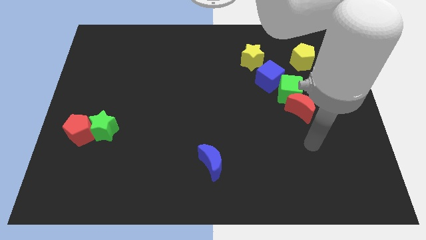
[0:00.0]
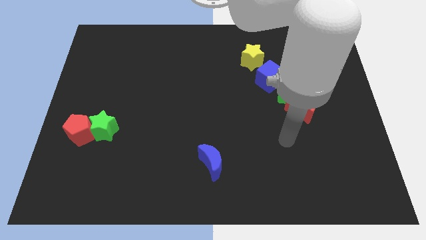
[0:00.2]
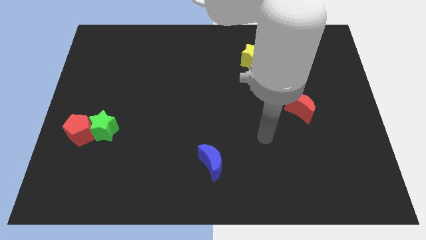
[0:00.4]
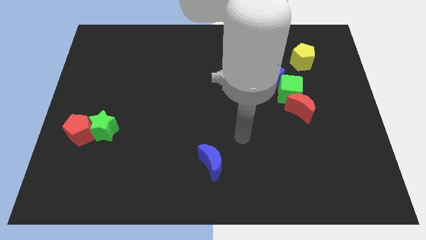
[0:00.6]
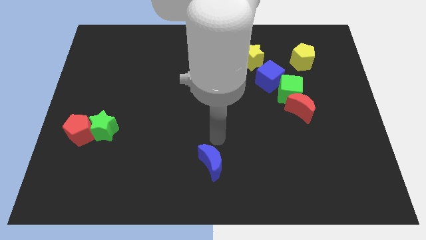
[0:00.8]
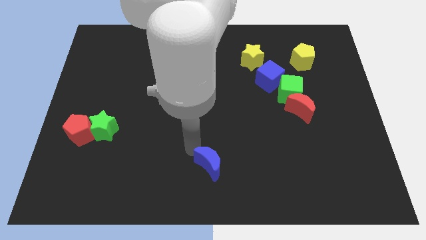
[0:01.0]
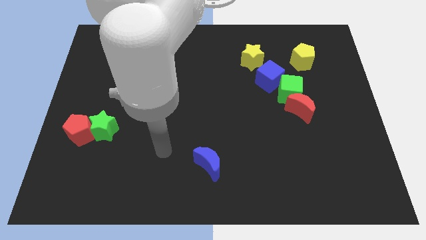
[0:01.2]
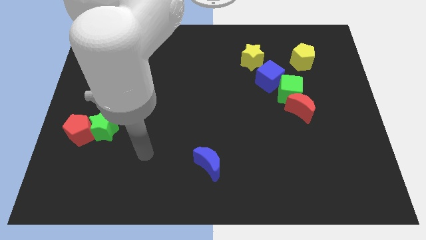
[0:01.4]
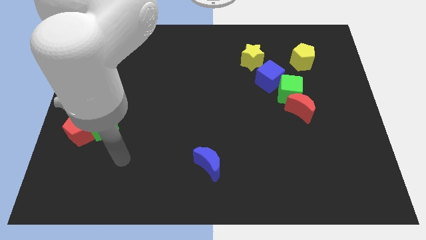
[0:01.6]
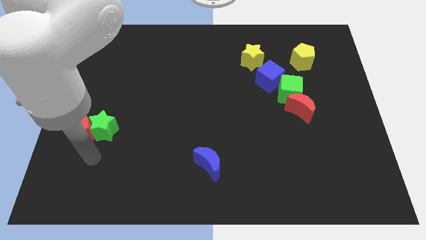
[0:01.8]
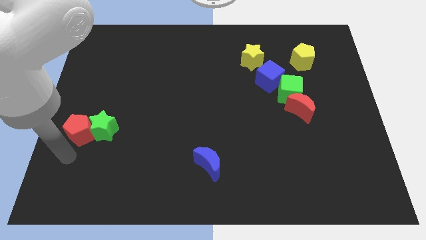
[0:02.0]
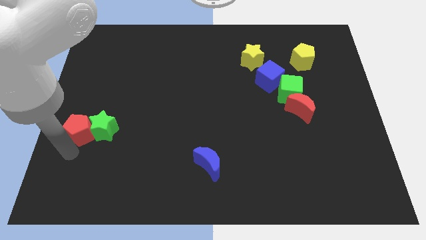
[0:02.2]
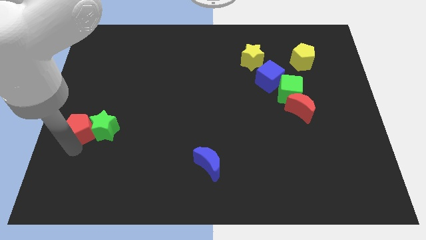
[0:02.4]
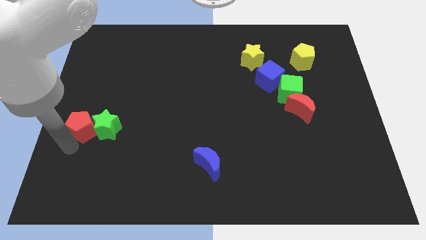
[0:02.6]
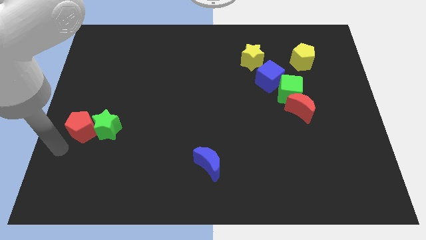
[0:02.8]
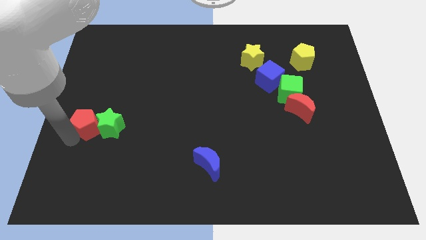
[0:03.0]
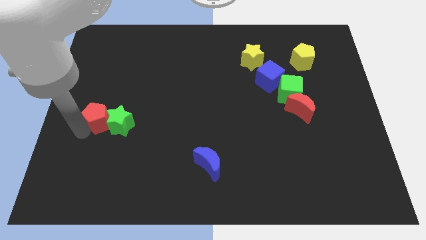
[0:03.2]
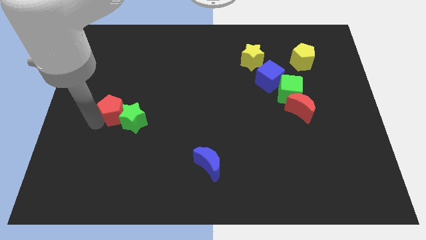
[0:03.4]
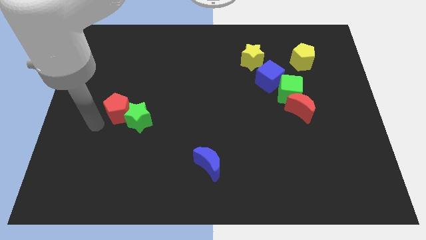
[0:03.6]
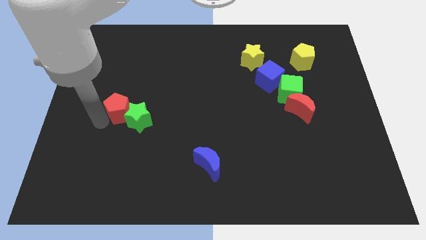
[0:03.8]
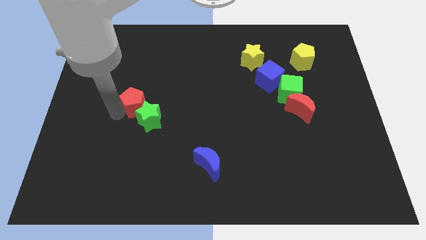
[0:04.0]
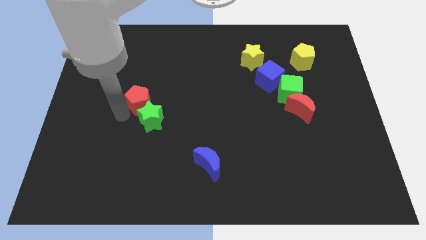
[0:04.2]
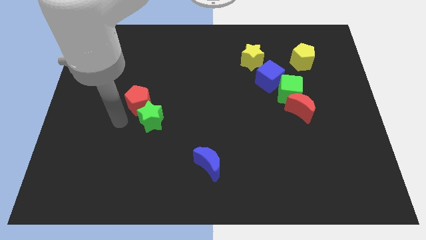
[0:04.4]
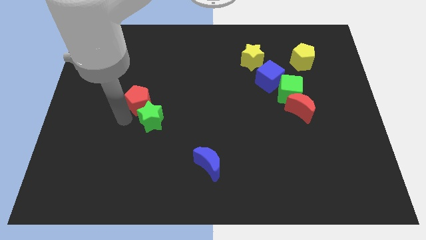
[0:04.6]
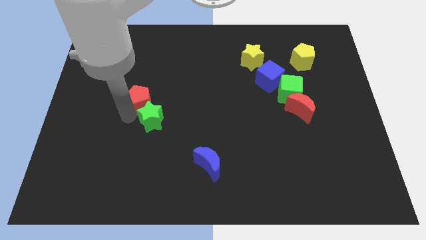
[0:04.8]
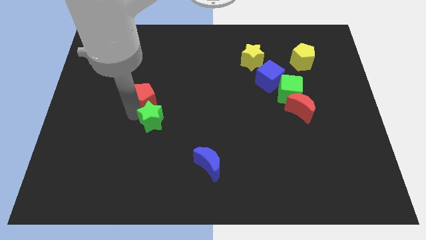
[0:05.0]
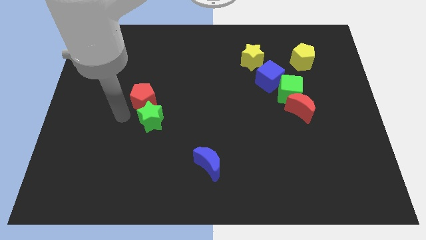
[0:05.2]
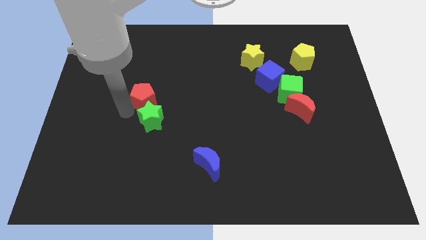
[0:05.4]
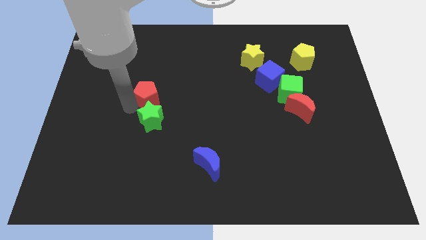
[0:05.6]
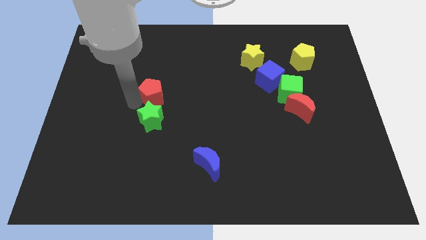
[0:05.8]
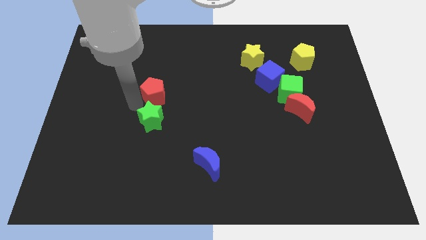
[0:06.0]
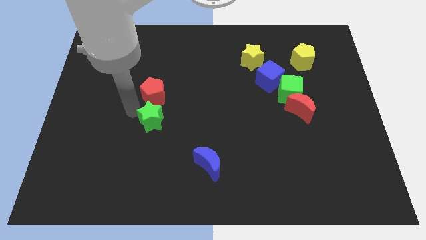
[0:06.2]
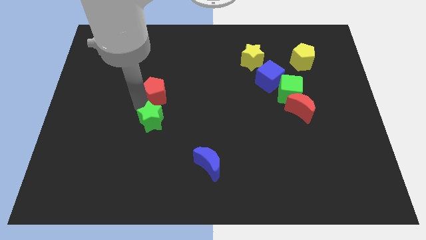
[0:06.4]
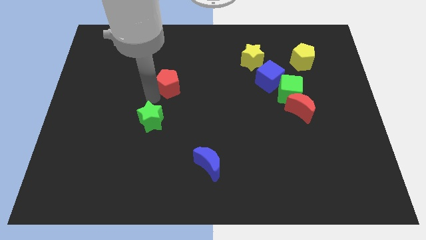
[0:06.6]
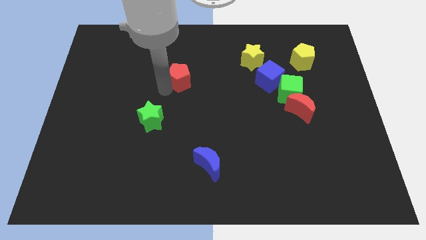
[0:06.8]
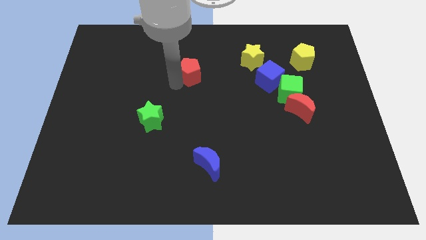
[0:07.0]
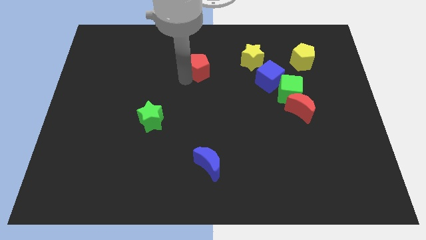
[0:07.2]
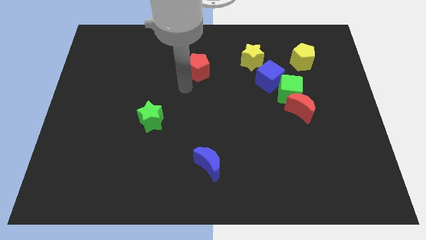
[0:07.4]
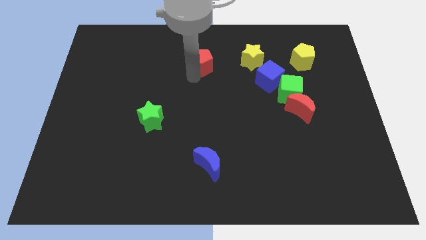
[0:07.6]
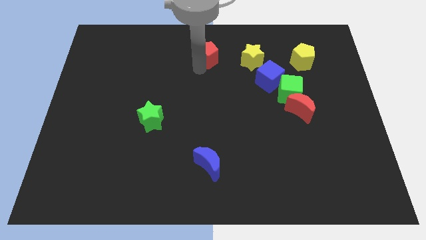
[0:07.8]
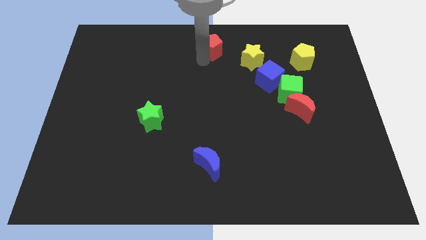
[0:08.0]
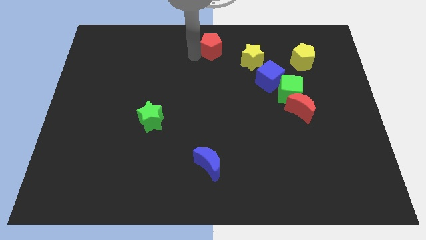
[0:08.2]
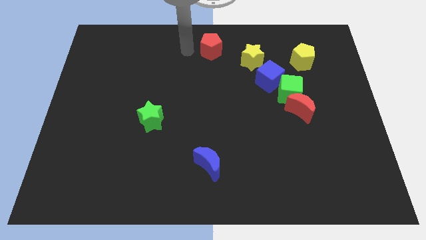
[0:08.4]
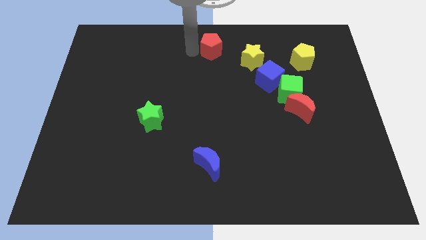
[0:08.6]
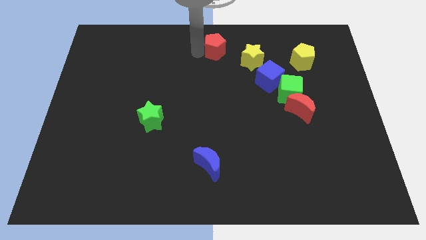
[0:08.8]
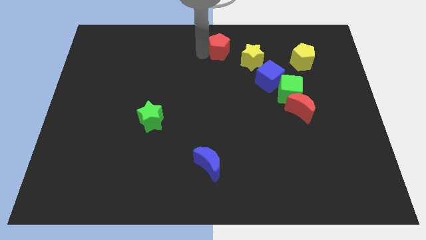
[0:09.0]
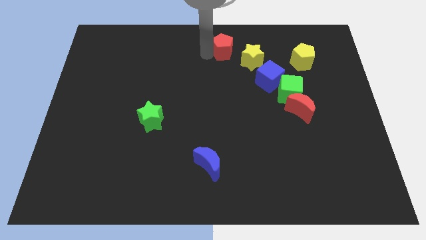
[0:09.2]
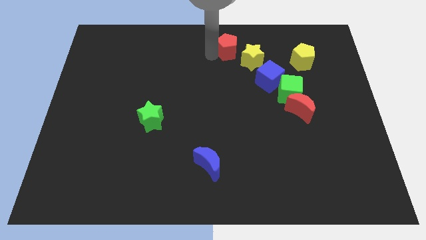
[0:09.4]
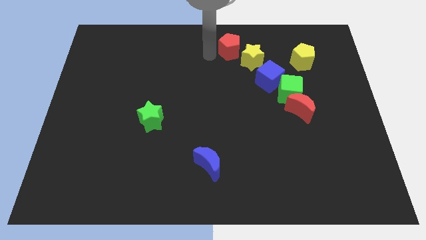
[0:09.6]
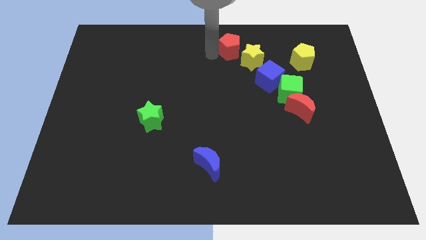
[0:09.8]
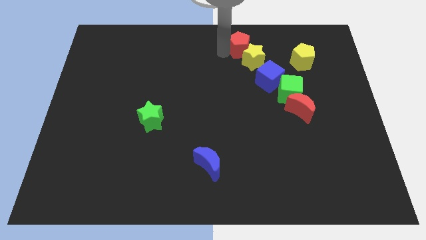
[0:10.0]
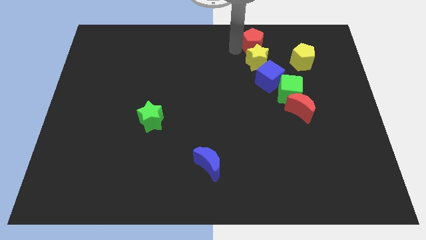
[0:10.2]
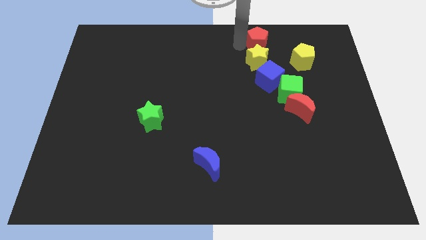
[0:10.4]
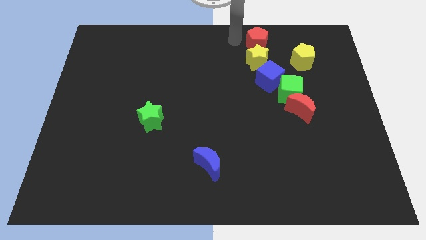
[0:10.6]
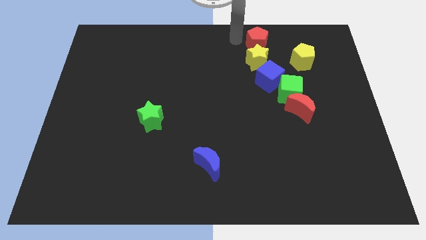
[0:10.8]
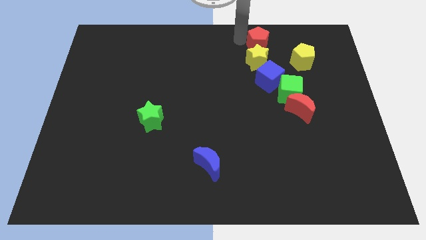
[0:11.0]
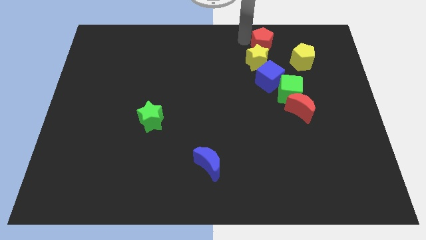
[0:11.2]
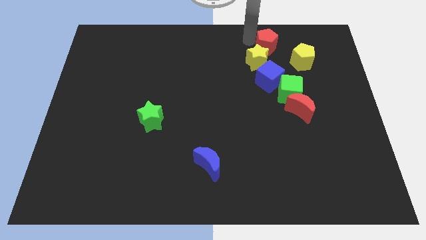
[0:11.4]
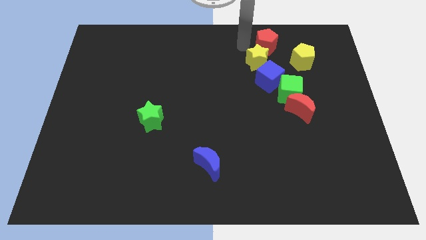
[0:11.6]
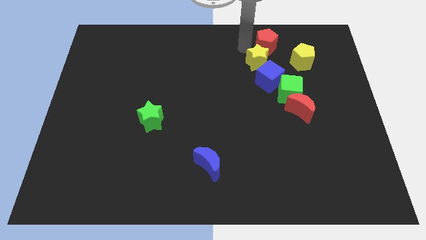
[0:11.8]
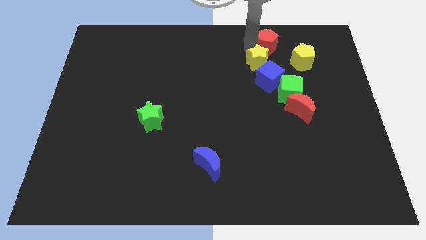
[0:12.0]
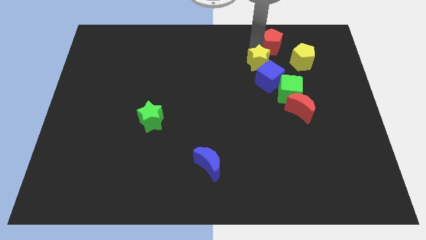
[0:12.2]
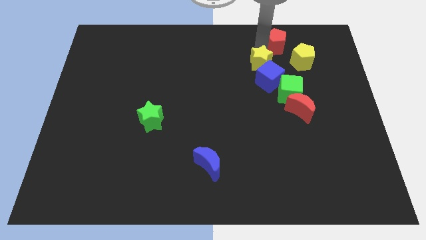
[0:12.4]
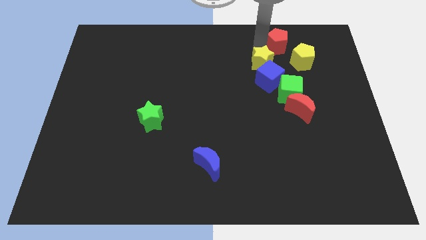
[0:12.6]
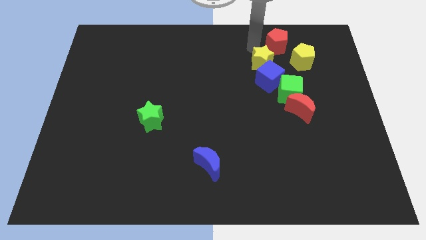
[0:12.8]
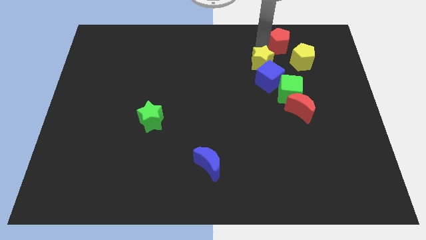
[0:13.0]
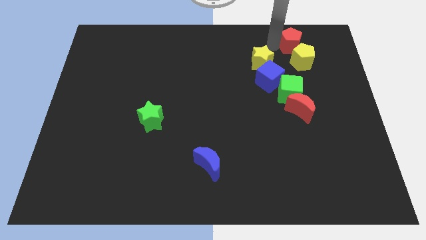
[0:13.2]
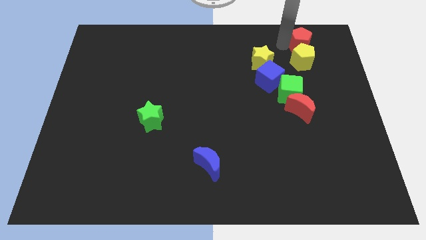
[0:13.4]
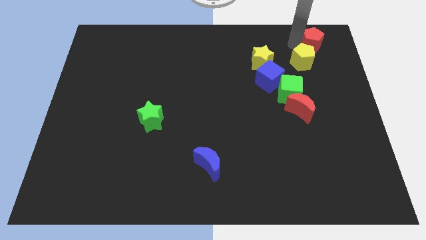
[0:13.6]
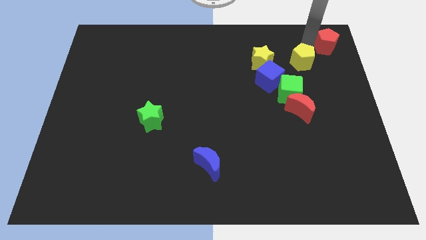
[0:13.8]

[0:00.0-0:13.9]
slide the red pentagon to the top right corner
